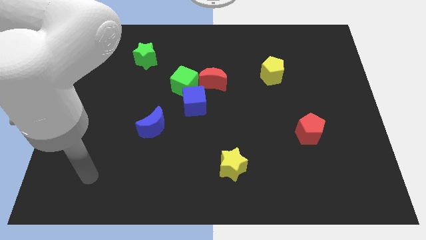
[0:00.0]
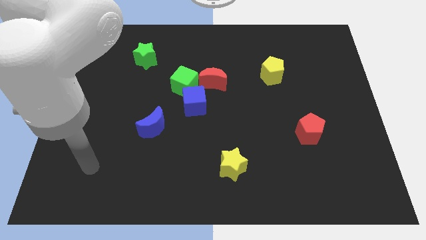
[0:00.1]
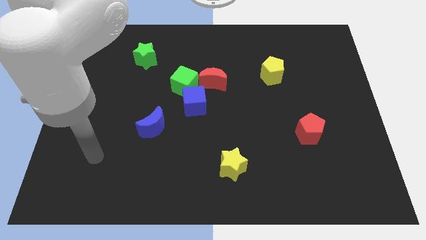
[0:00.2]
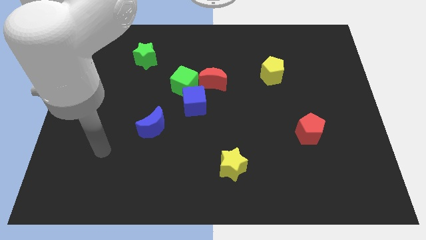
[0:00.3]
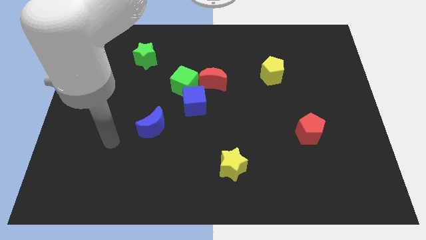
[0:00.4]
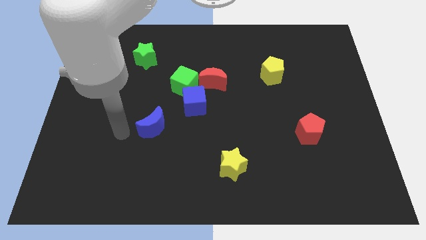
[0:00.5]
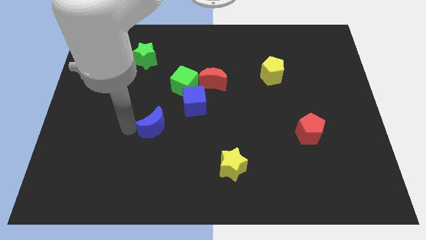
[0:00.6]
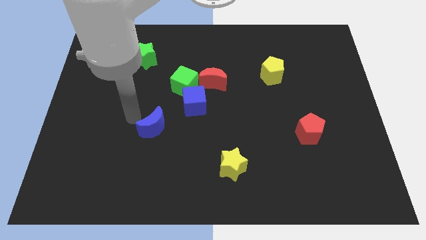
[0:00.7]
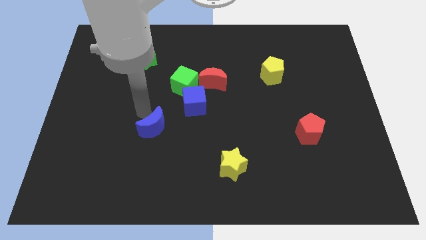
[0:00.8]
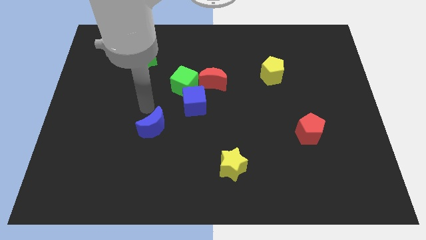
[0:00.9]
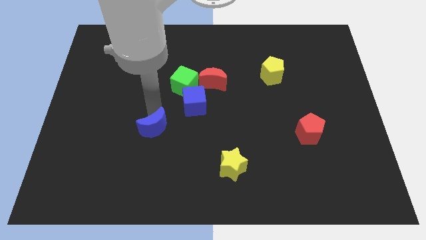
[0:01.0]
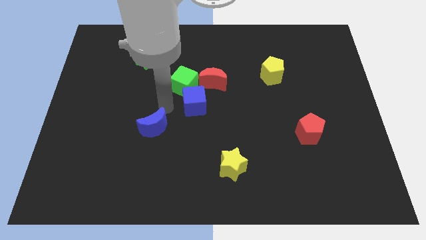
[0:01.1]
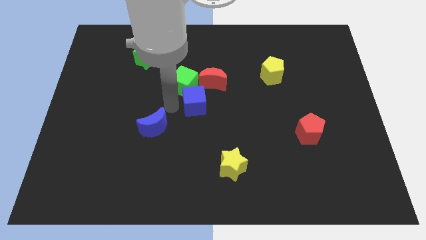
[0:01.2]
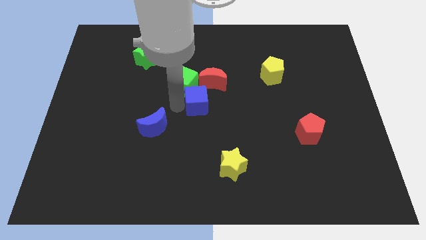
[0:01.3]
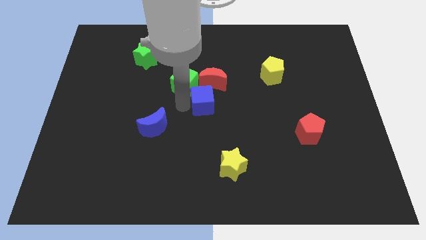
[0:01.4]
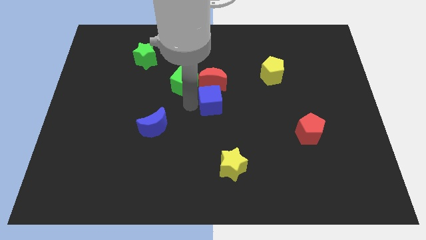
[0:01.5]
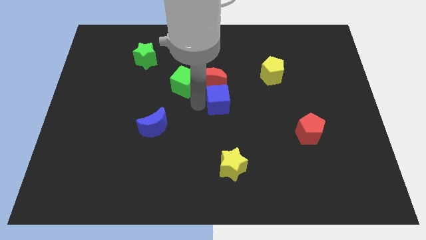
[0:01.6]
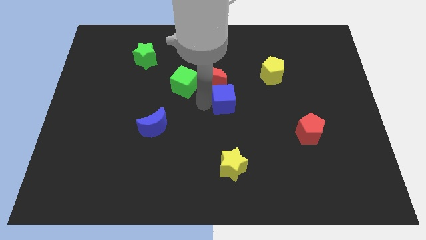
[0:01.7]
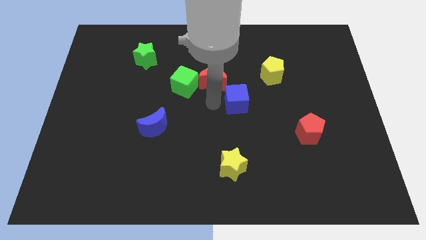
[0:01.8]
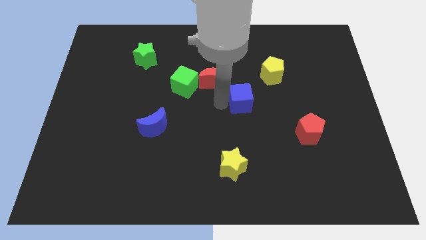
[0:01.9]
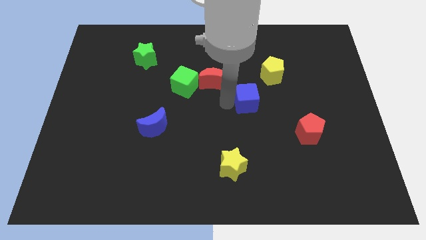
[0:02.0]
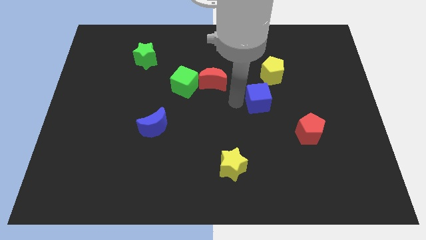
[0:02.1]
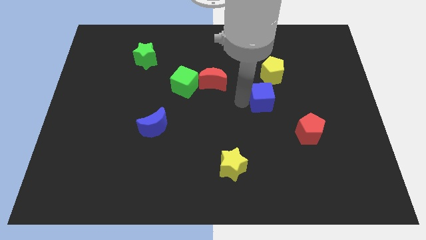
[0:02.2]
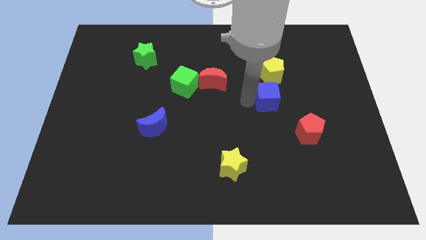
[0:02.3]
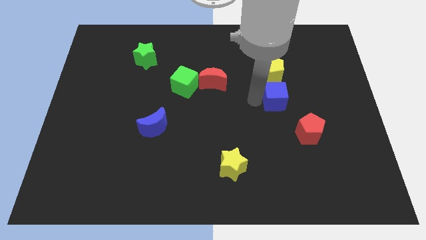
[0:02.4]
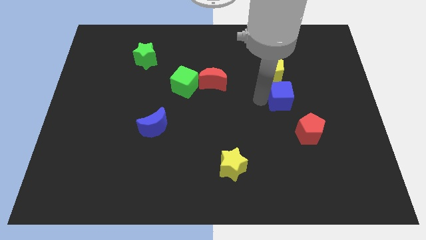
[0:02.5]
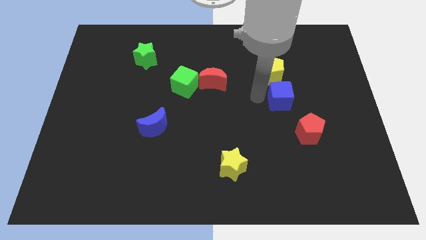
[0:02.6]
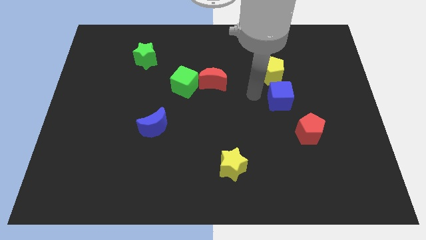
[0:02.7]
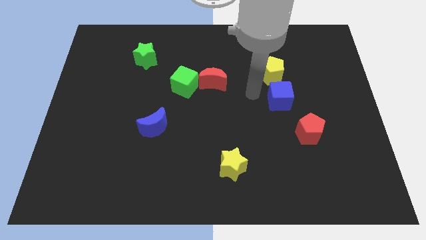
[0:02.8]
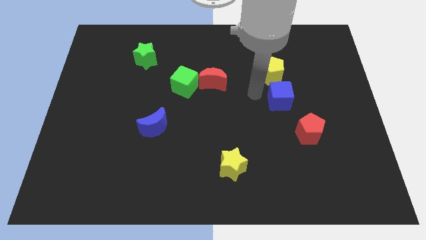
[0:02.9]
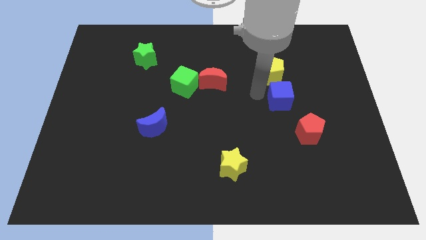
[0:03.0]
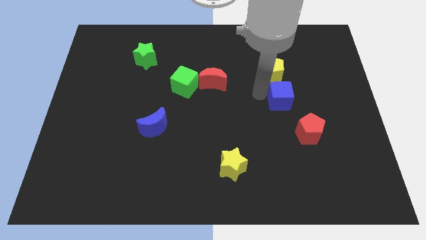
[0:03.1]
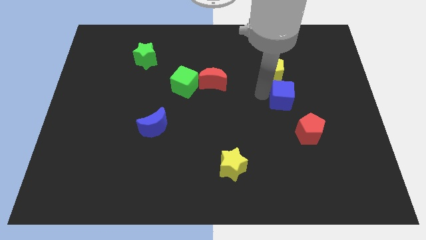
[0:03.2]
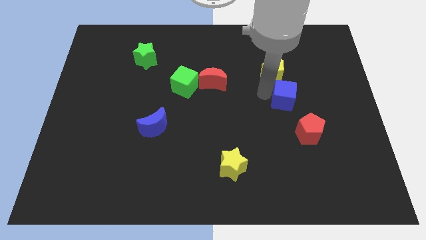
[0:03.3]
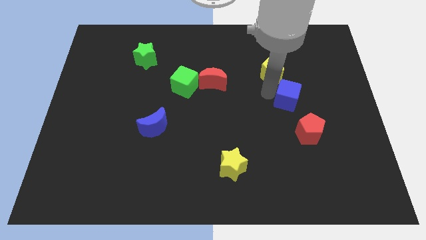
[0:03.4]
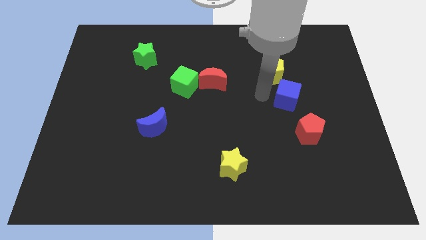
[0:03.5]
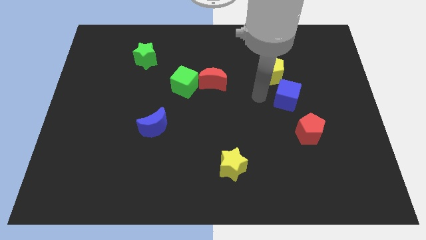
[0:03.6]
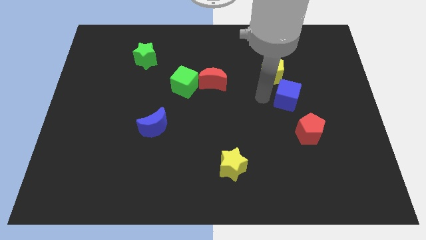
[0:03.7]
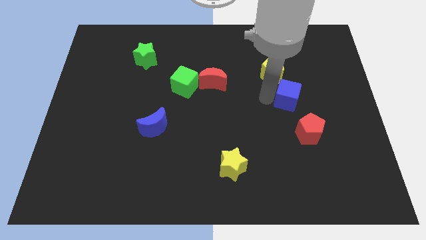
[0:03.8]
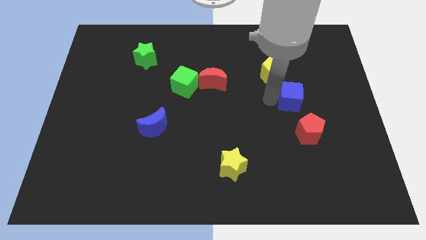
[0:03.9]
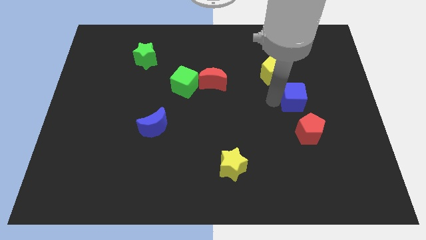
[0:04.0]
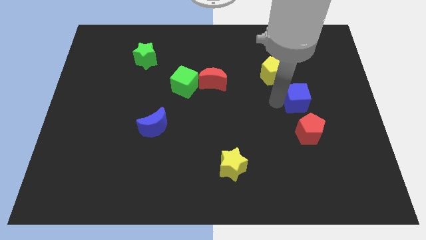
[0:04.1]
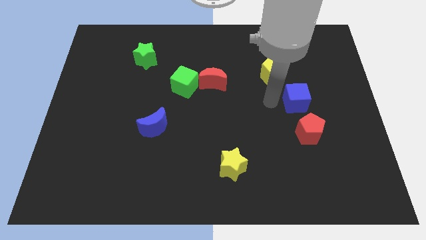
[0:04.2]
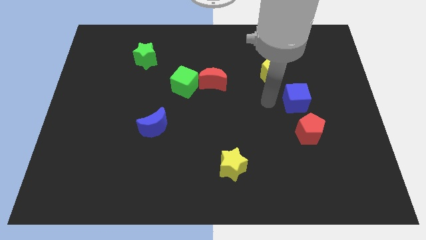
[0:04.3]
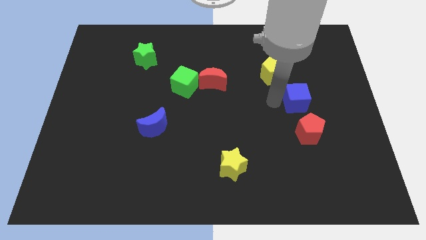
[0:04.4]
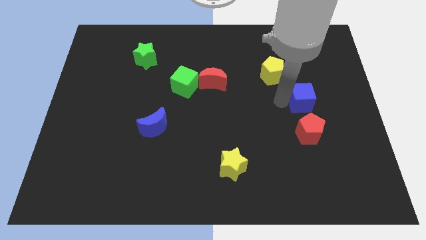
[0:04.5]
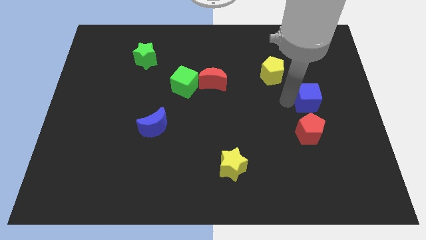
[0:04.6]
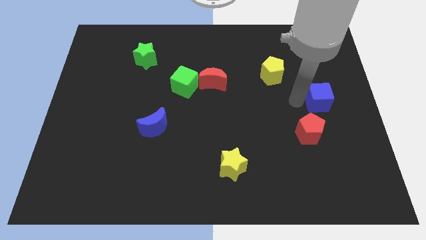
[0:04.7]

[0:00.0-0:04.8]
put the blue cube to the right side of the board

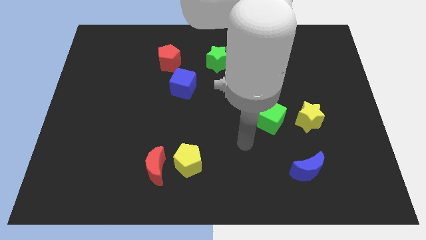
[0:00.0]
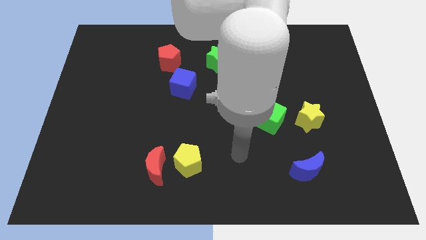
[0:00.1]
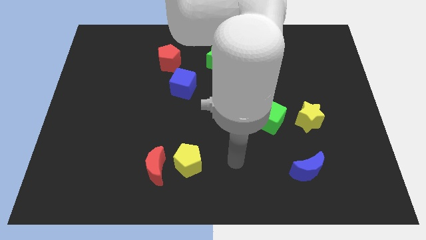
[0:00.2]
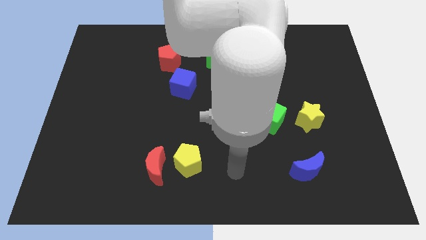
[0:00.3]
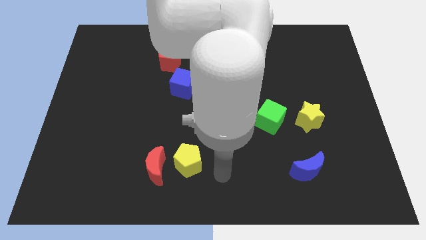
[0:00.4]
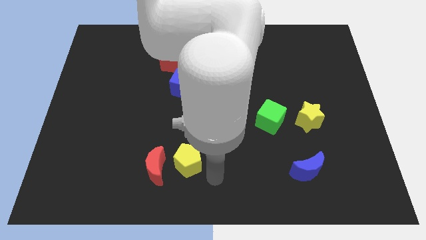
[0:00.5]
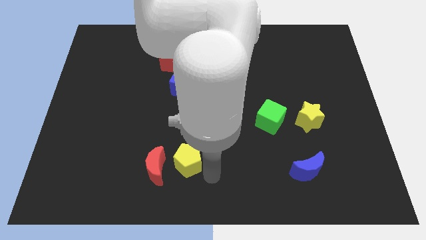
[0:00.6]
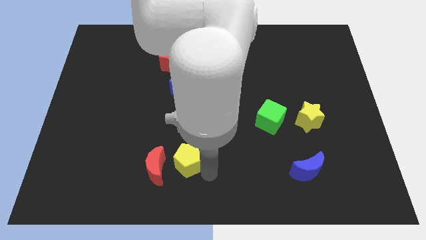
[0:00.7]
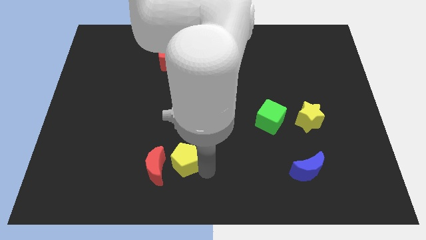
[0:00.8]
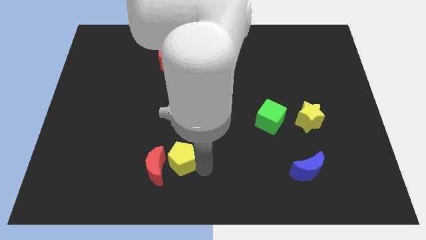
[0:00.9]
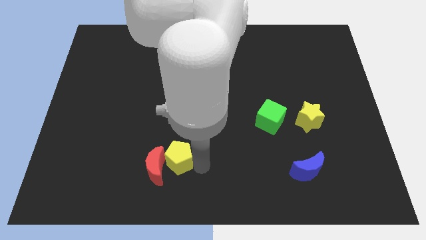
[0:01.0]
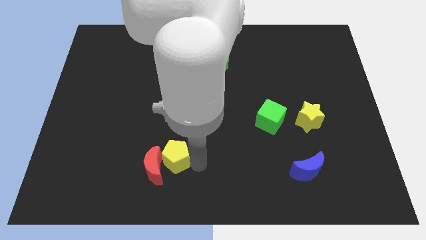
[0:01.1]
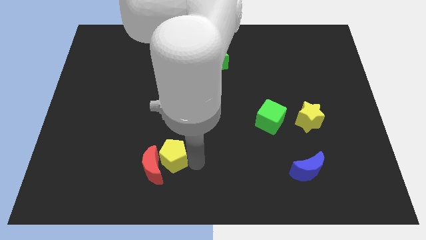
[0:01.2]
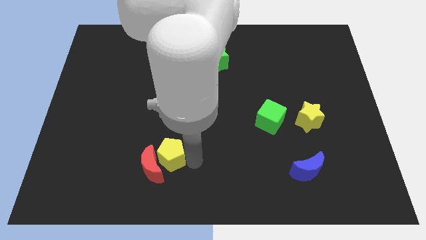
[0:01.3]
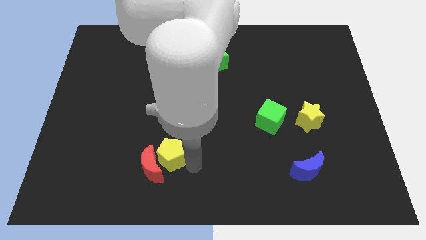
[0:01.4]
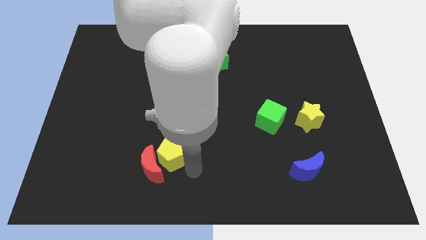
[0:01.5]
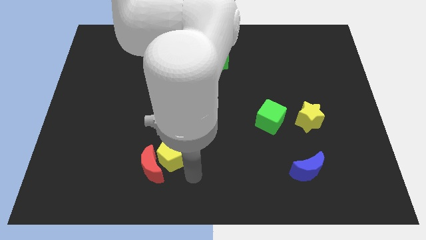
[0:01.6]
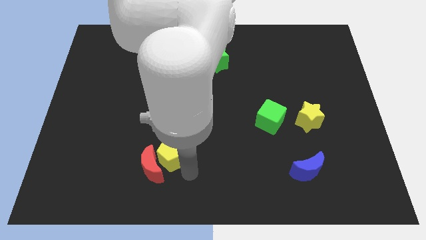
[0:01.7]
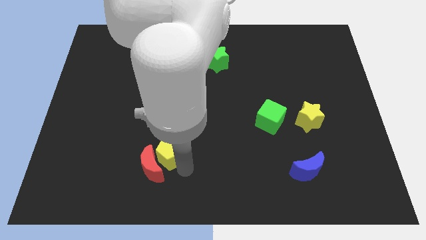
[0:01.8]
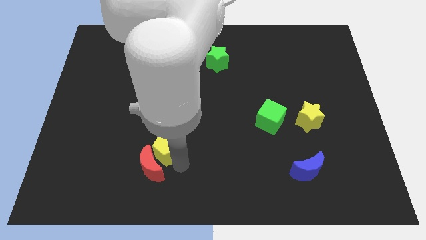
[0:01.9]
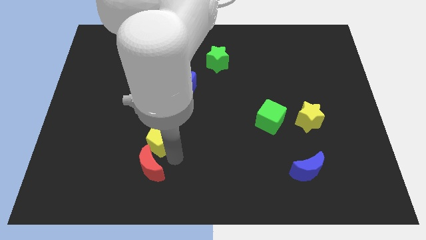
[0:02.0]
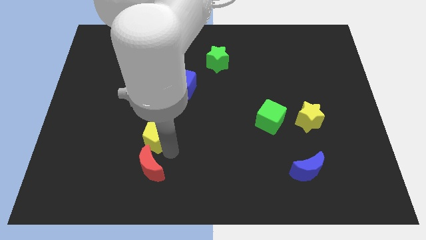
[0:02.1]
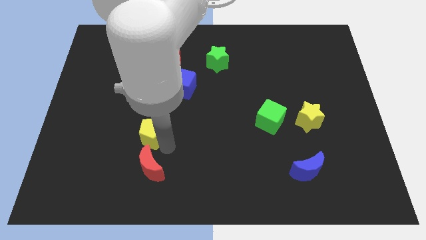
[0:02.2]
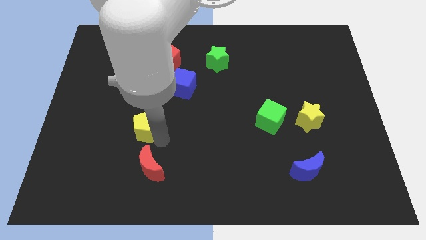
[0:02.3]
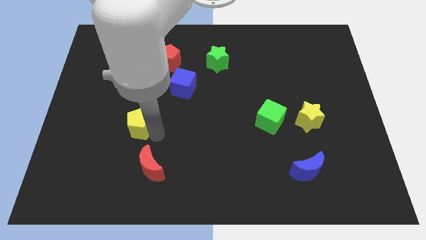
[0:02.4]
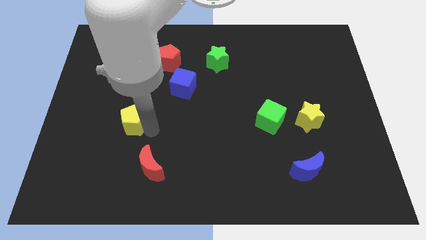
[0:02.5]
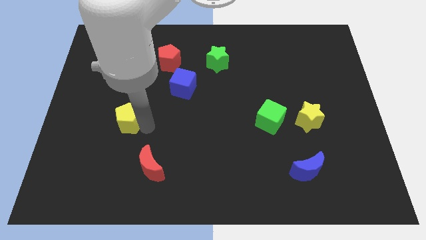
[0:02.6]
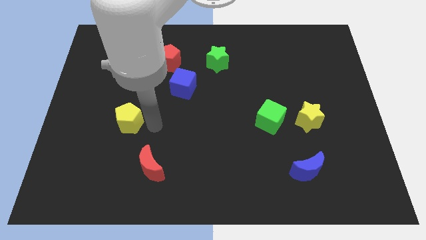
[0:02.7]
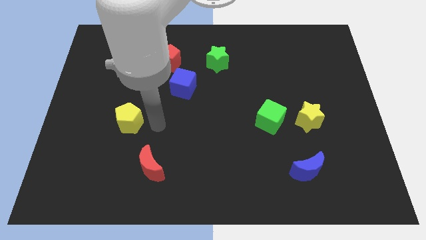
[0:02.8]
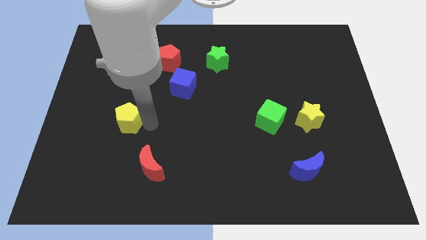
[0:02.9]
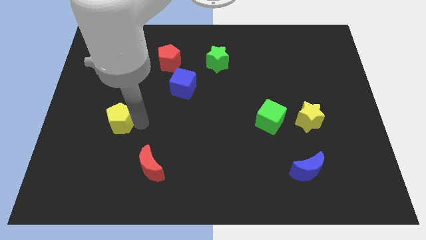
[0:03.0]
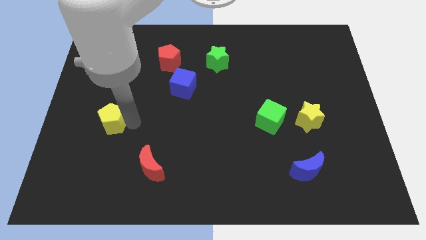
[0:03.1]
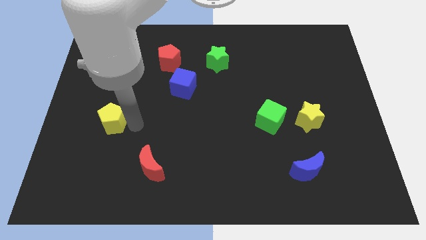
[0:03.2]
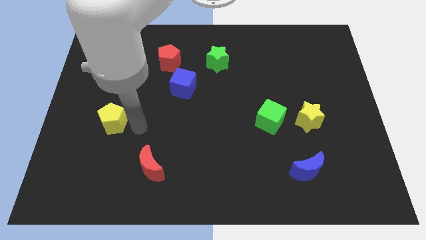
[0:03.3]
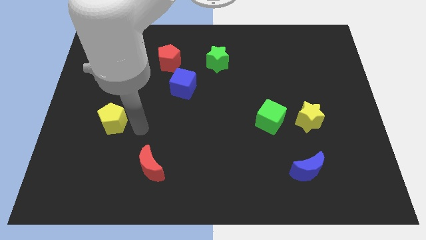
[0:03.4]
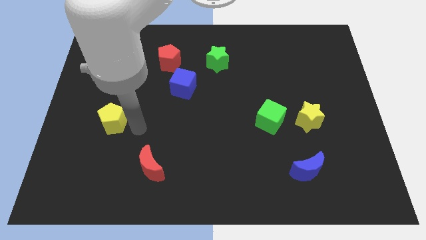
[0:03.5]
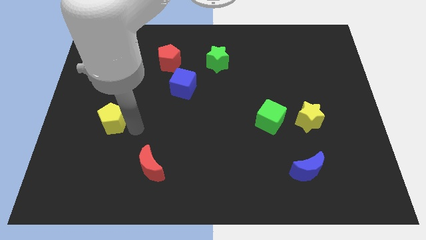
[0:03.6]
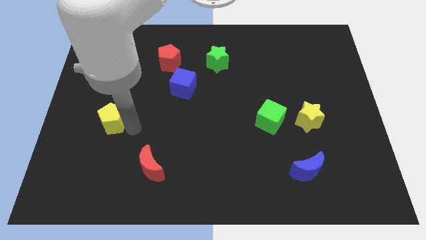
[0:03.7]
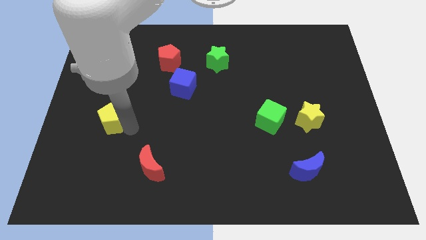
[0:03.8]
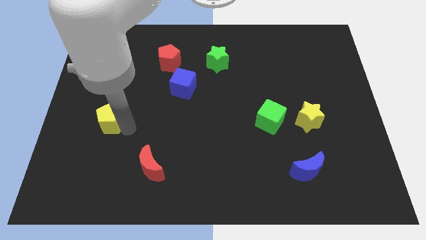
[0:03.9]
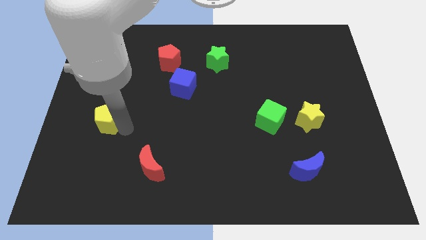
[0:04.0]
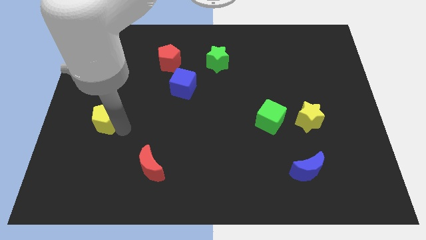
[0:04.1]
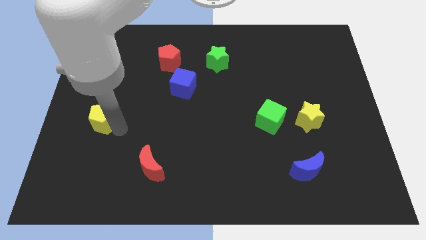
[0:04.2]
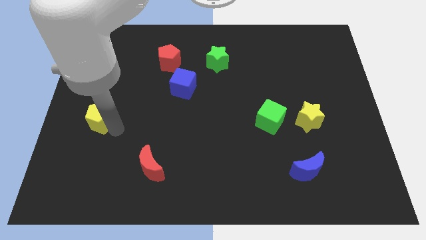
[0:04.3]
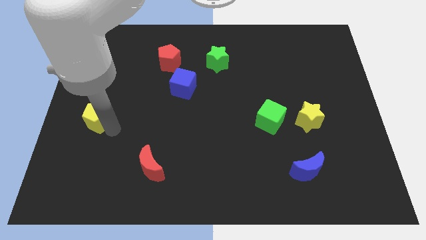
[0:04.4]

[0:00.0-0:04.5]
push the yellow pentagon to the left side
